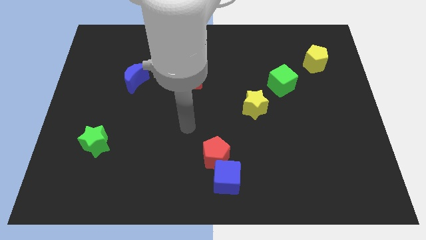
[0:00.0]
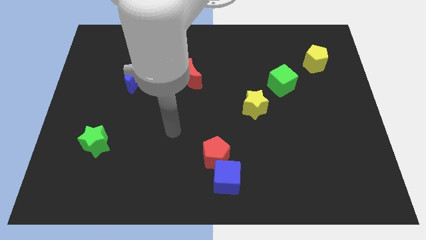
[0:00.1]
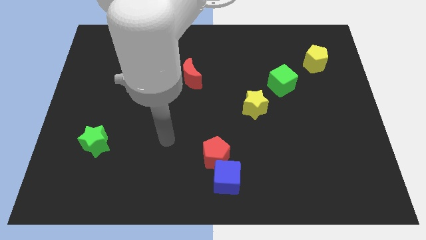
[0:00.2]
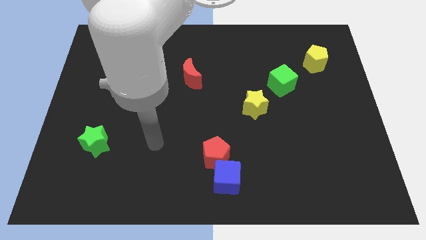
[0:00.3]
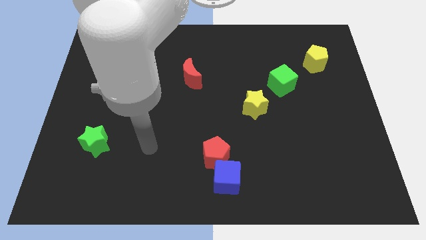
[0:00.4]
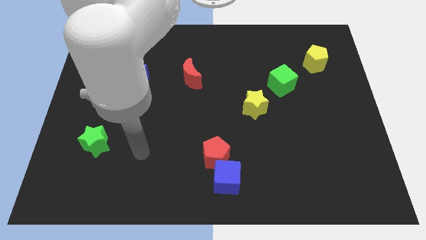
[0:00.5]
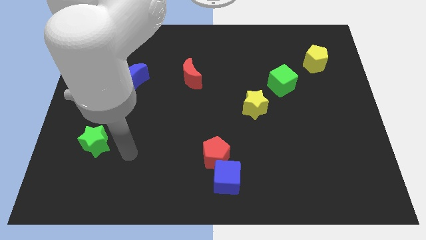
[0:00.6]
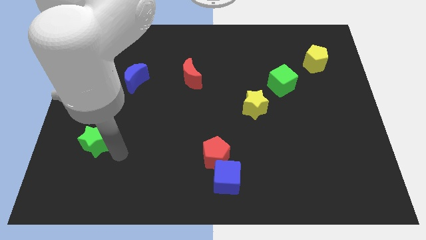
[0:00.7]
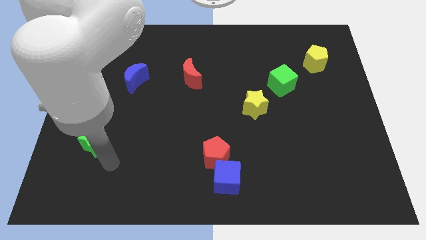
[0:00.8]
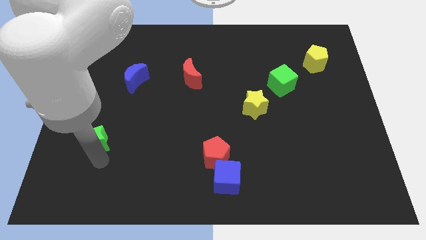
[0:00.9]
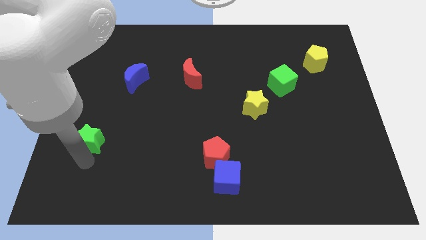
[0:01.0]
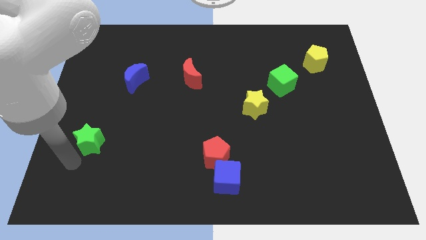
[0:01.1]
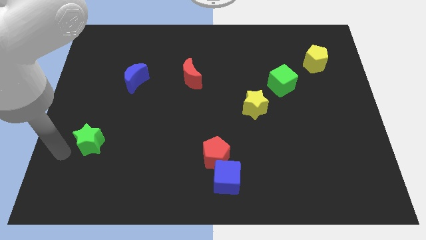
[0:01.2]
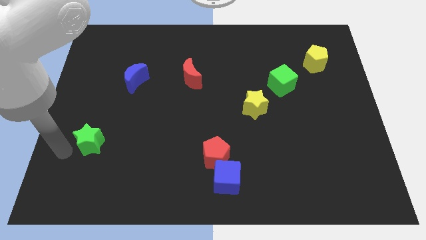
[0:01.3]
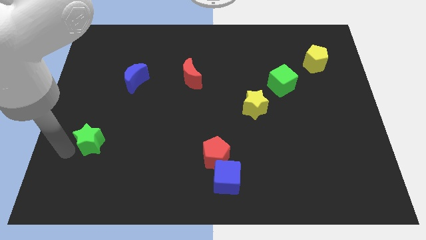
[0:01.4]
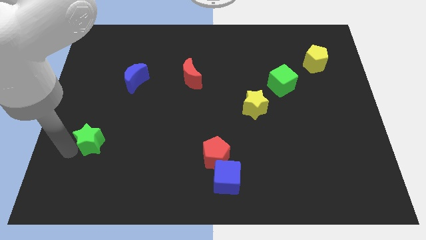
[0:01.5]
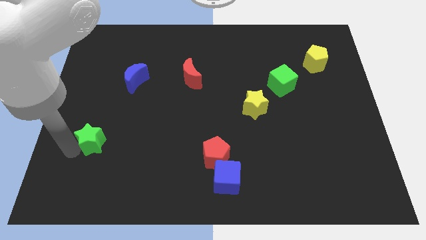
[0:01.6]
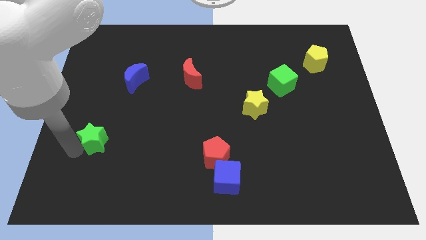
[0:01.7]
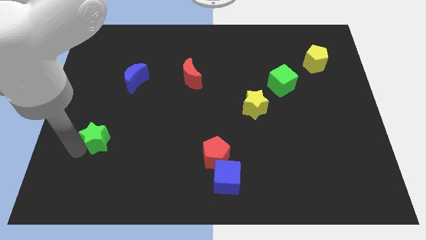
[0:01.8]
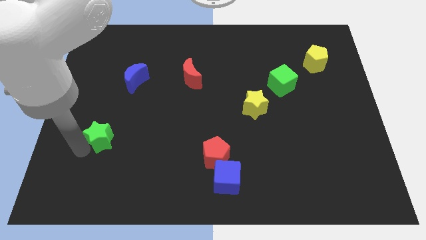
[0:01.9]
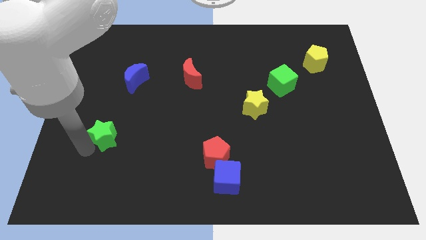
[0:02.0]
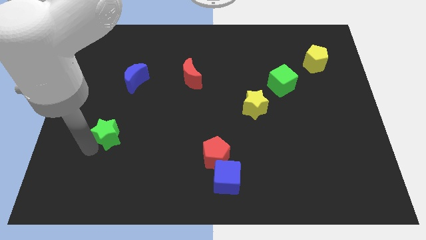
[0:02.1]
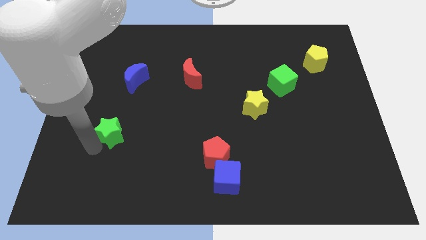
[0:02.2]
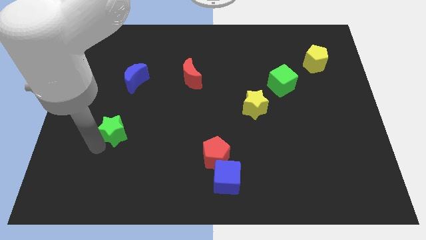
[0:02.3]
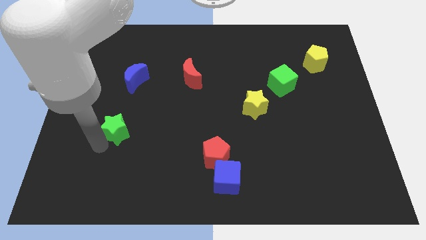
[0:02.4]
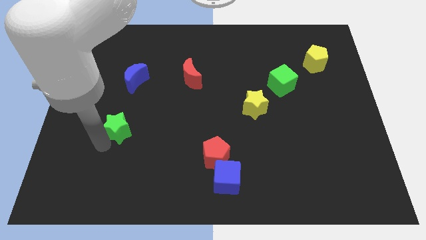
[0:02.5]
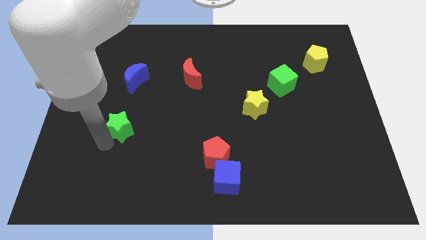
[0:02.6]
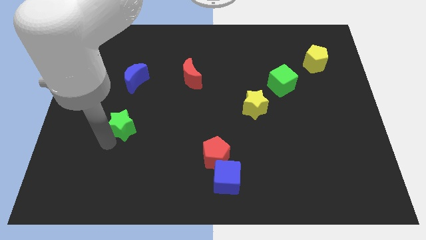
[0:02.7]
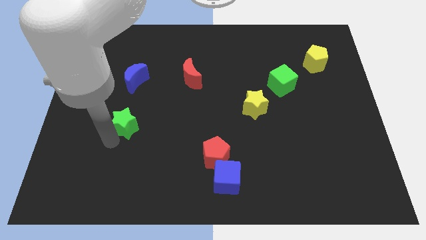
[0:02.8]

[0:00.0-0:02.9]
slightly push the green star upwards and to the right diagonally

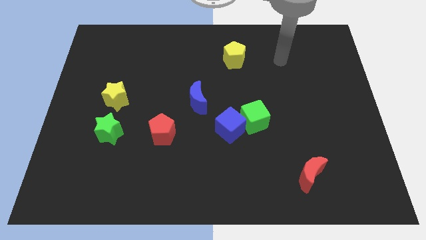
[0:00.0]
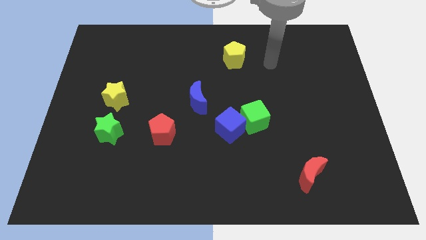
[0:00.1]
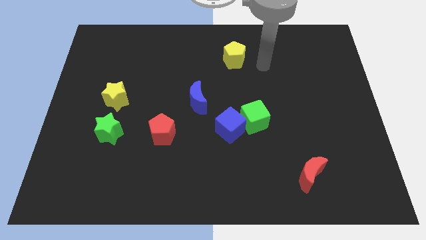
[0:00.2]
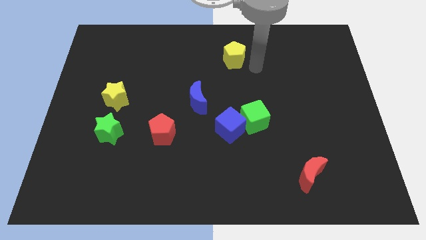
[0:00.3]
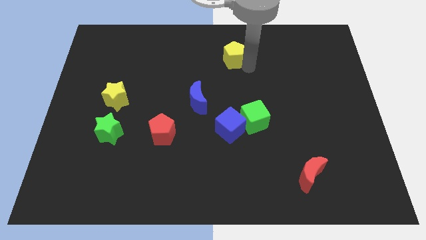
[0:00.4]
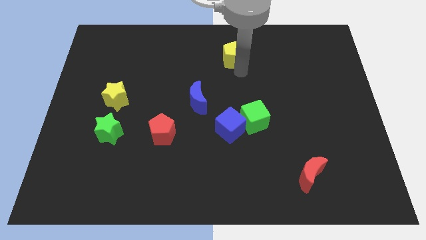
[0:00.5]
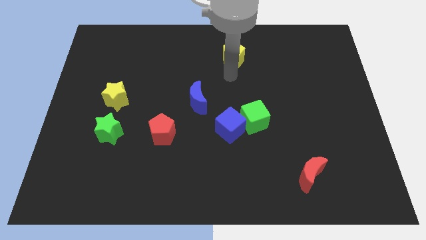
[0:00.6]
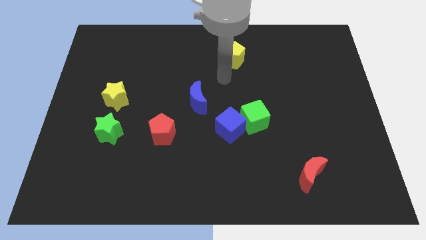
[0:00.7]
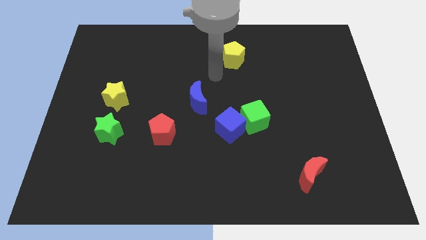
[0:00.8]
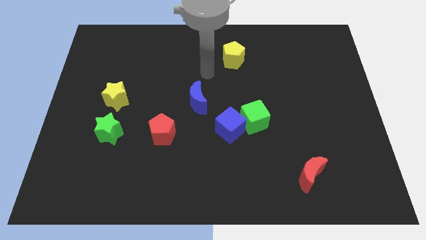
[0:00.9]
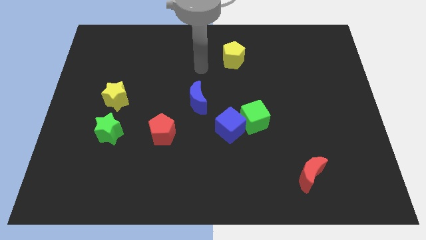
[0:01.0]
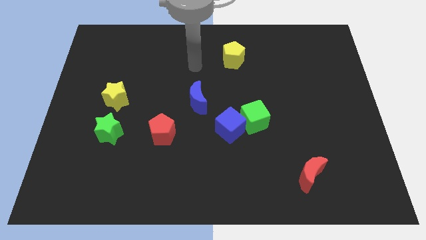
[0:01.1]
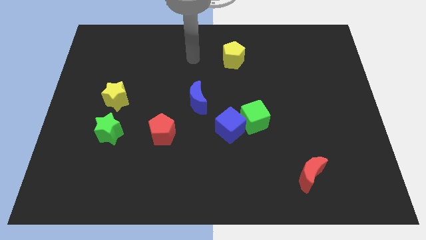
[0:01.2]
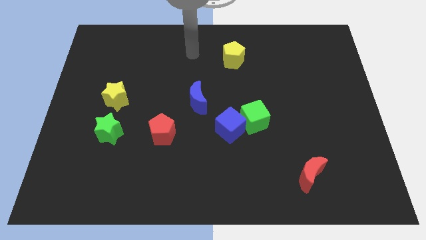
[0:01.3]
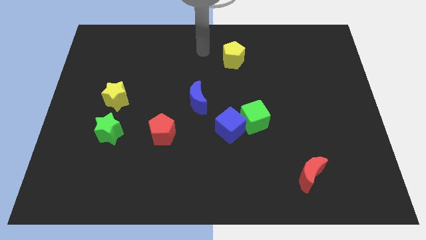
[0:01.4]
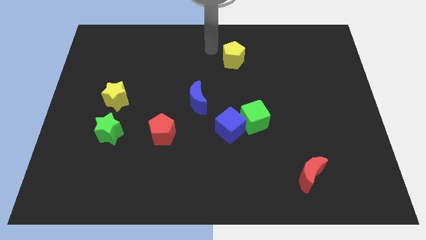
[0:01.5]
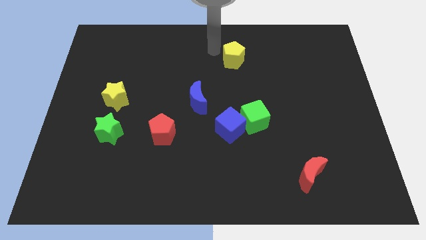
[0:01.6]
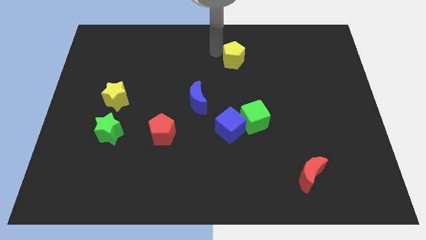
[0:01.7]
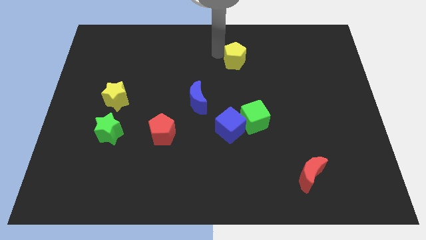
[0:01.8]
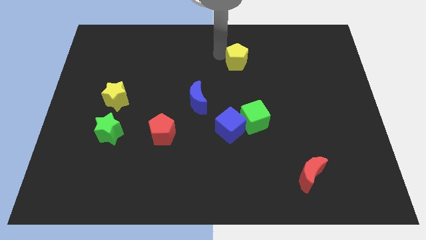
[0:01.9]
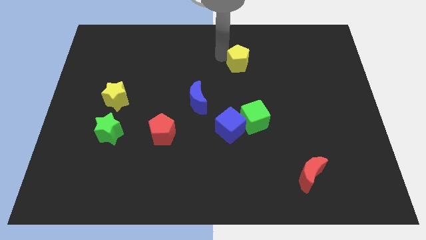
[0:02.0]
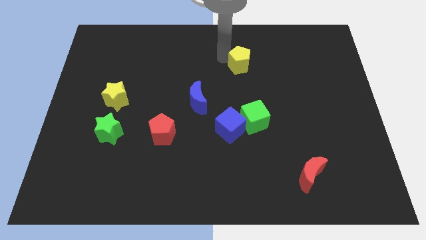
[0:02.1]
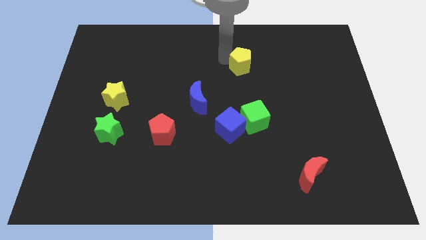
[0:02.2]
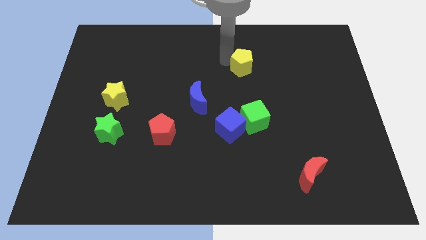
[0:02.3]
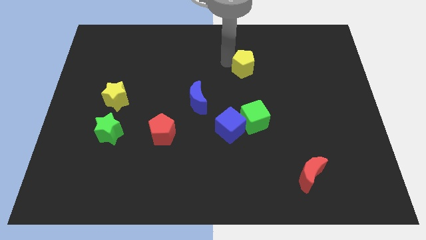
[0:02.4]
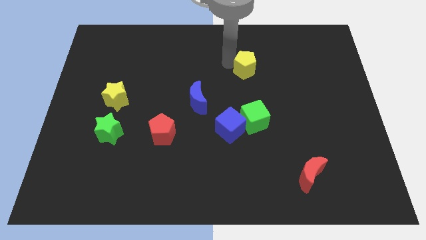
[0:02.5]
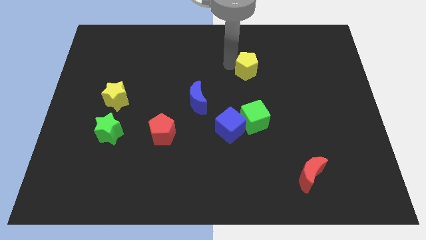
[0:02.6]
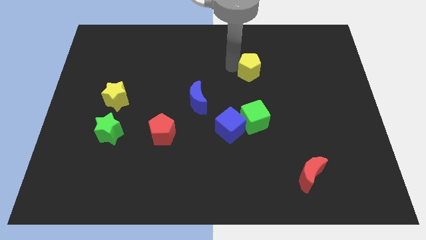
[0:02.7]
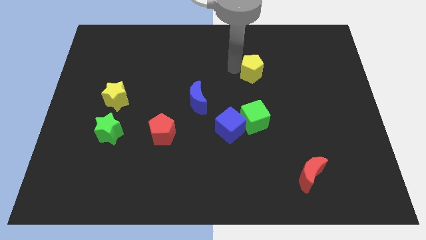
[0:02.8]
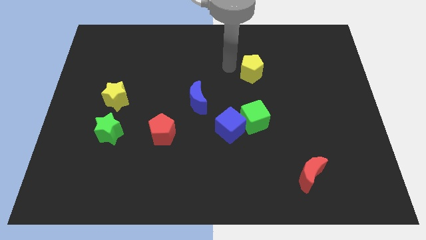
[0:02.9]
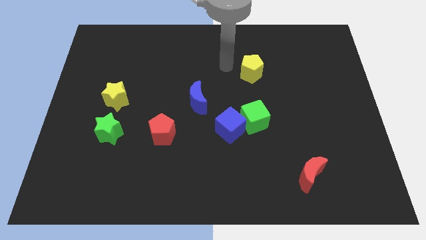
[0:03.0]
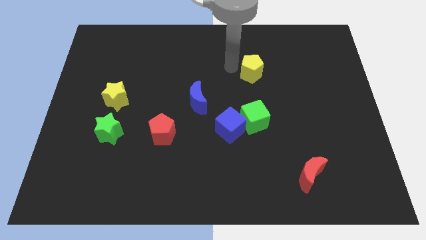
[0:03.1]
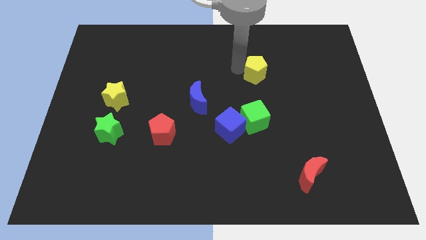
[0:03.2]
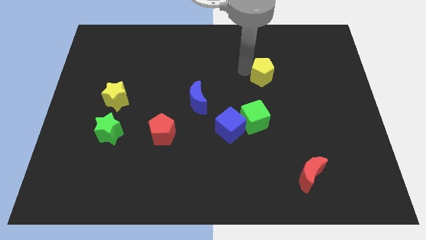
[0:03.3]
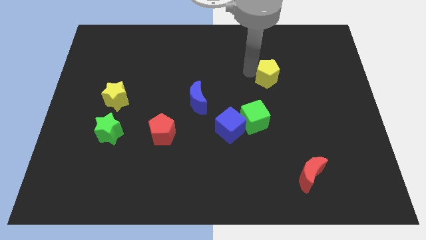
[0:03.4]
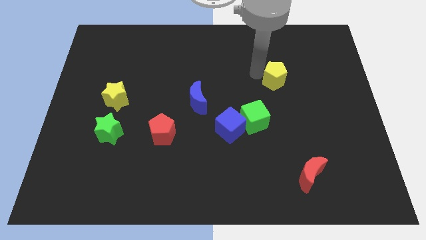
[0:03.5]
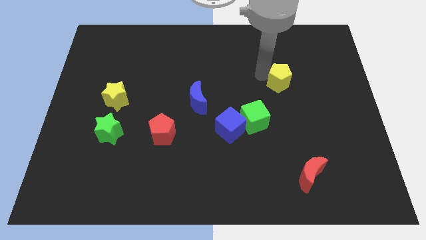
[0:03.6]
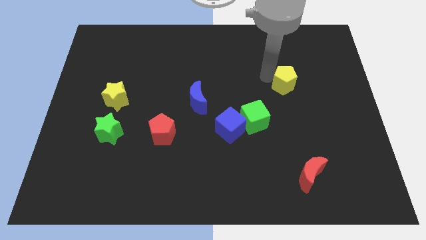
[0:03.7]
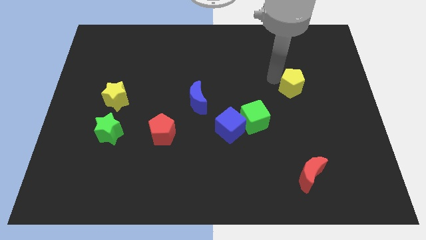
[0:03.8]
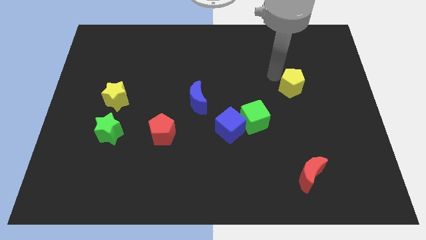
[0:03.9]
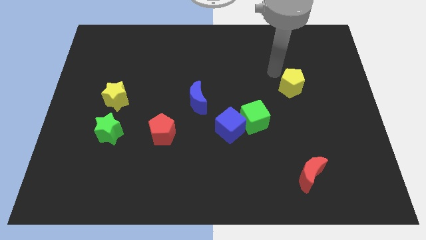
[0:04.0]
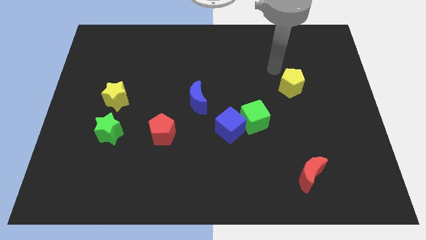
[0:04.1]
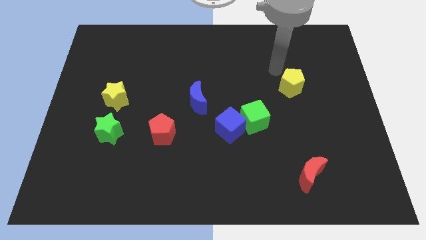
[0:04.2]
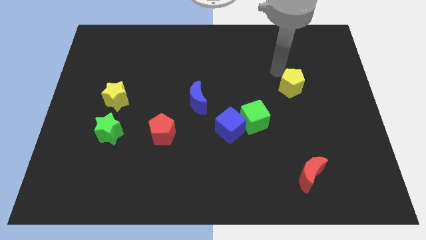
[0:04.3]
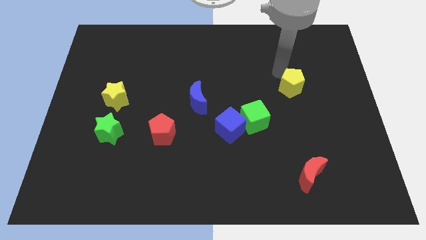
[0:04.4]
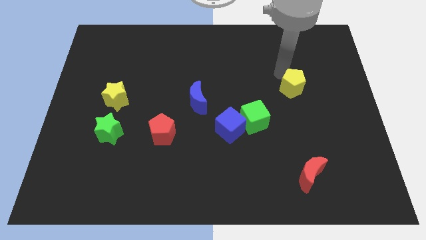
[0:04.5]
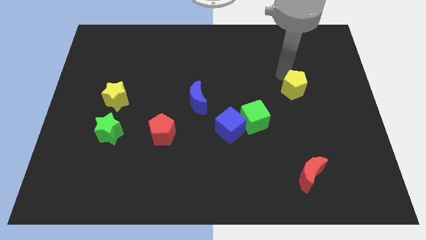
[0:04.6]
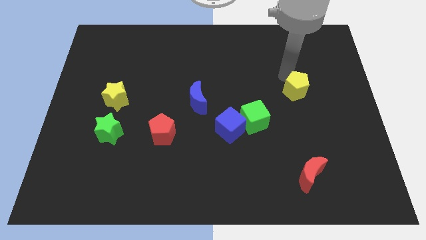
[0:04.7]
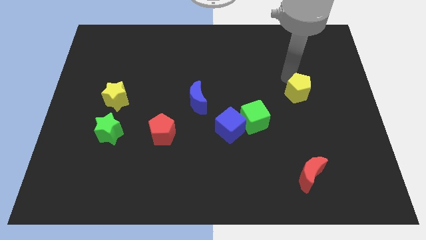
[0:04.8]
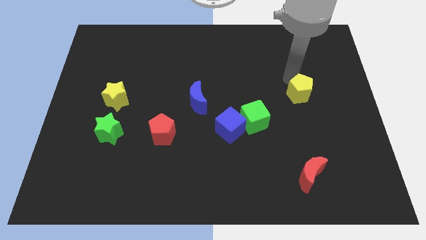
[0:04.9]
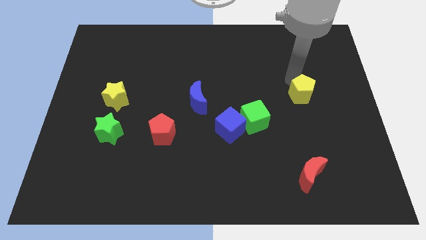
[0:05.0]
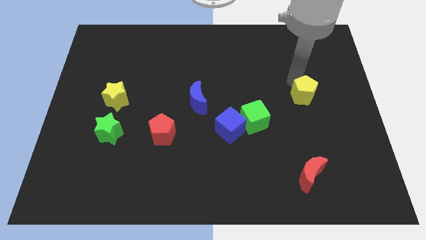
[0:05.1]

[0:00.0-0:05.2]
push the yellow pentagon down and then right

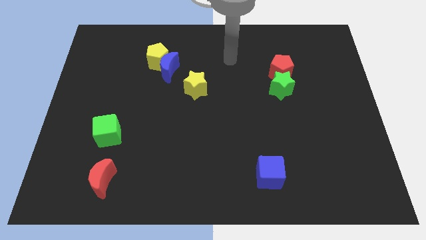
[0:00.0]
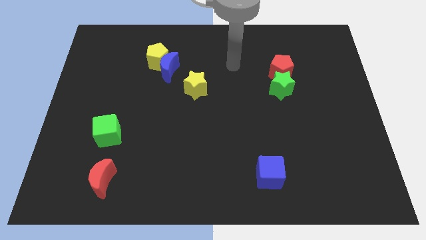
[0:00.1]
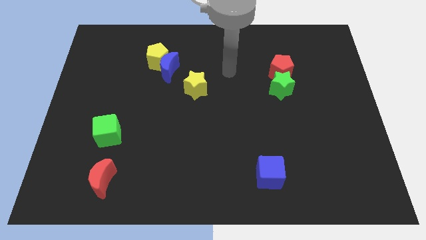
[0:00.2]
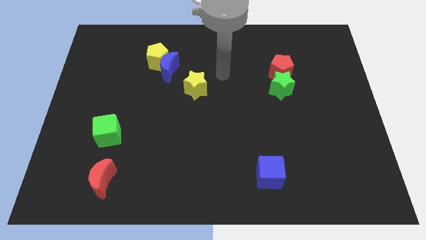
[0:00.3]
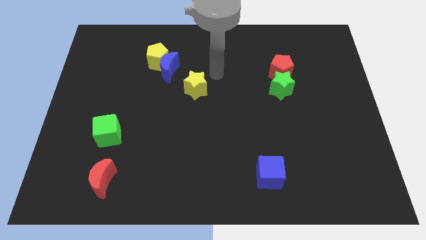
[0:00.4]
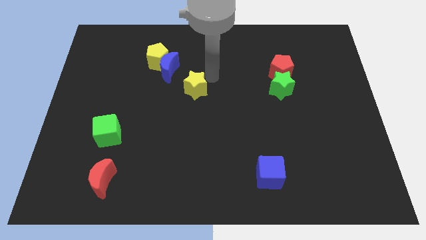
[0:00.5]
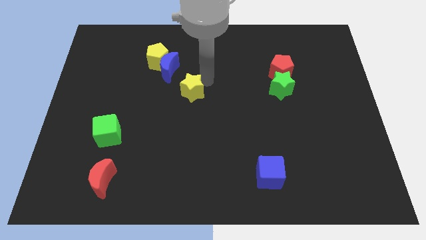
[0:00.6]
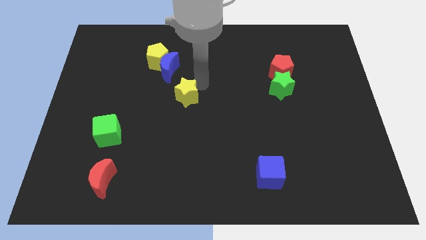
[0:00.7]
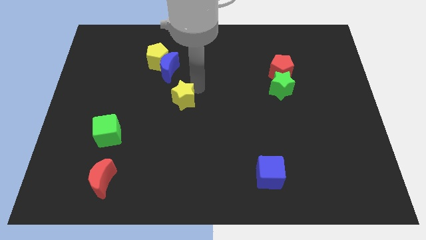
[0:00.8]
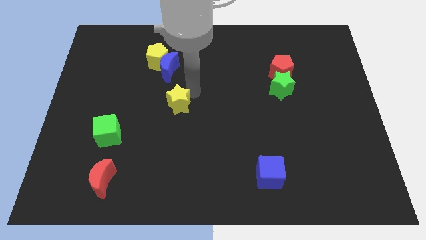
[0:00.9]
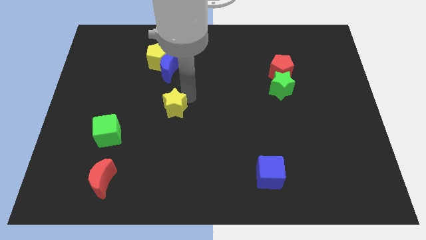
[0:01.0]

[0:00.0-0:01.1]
move the yellow star diagonally down and to the left a little
